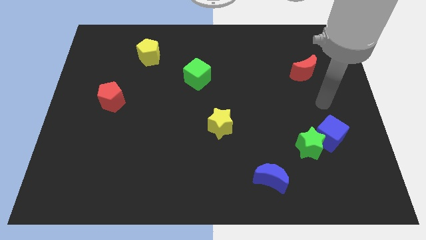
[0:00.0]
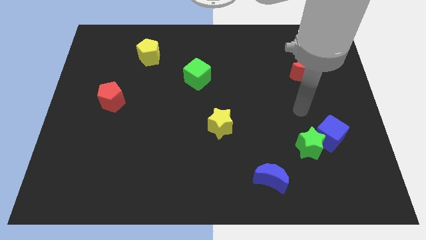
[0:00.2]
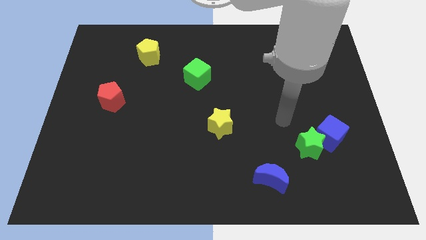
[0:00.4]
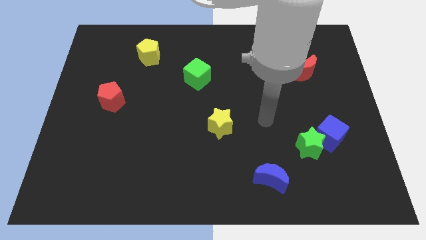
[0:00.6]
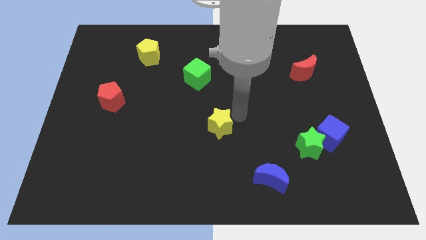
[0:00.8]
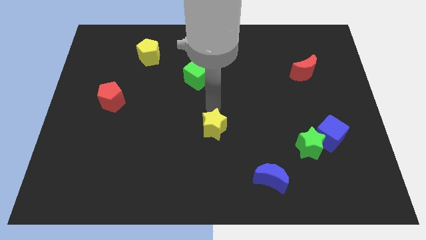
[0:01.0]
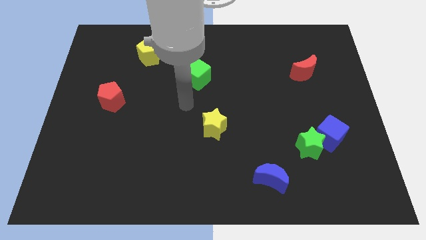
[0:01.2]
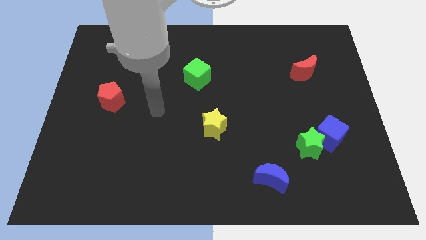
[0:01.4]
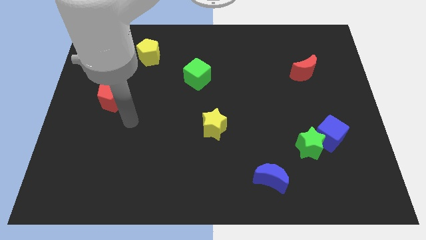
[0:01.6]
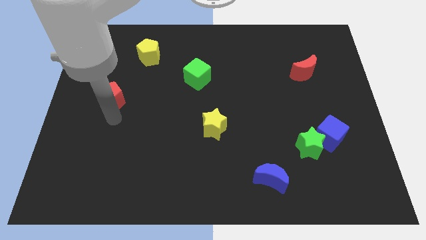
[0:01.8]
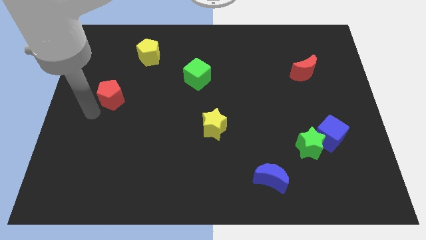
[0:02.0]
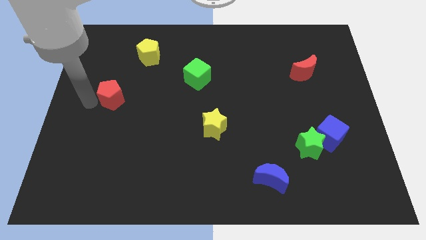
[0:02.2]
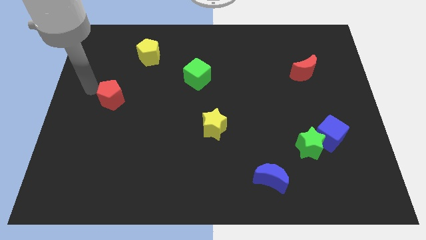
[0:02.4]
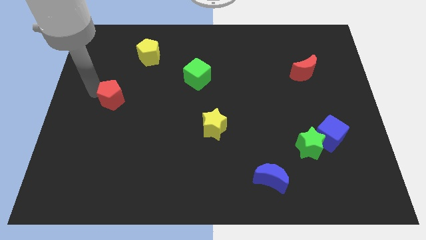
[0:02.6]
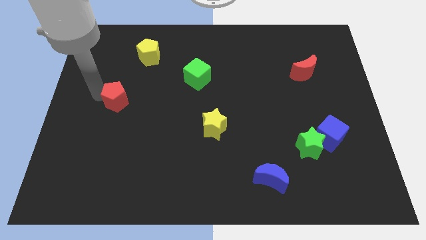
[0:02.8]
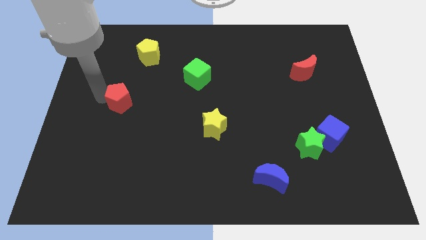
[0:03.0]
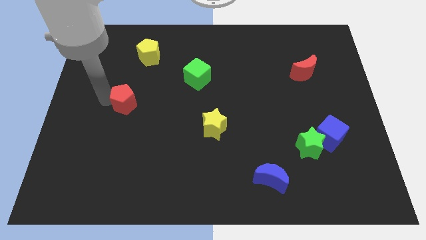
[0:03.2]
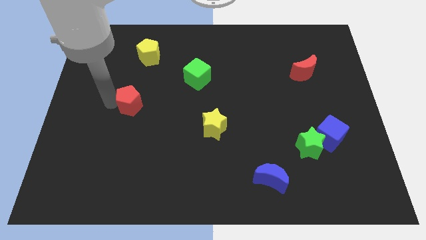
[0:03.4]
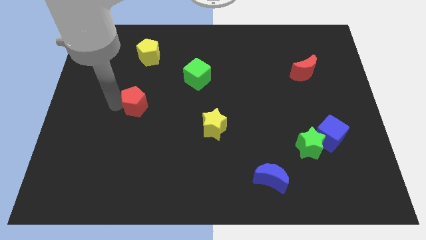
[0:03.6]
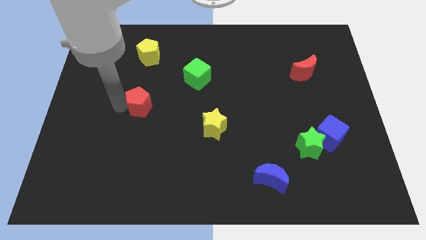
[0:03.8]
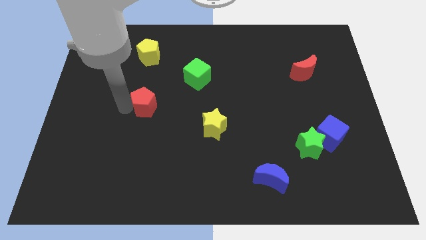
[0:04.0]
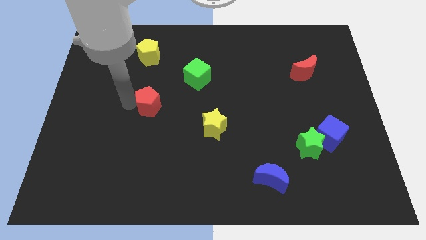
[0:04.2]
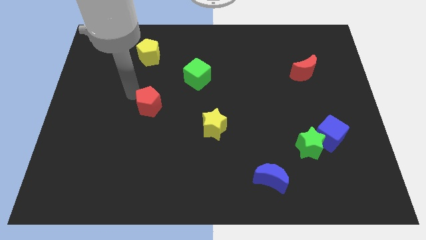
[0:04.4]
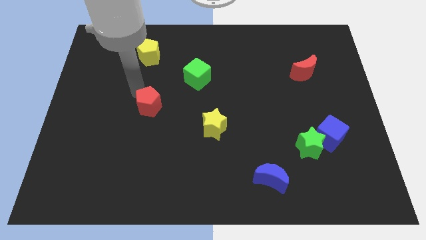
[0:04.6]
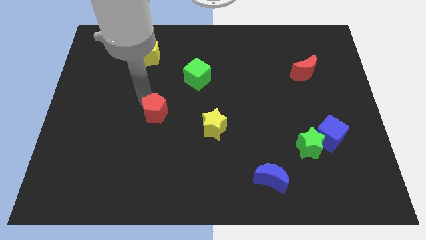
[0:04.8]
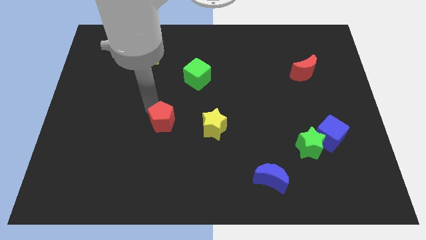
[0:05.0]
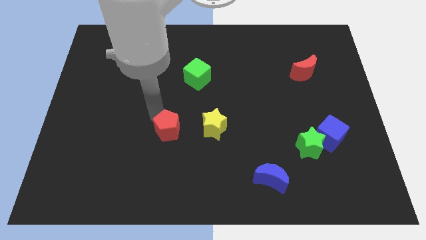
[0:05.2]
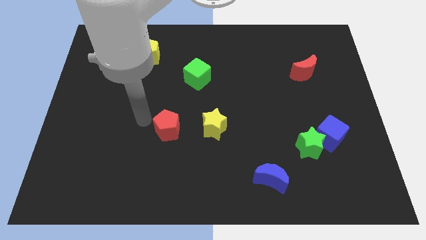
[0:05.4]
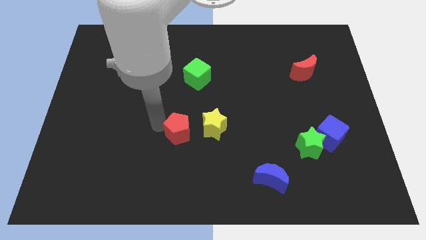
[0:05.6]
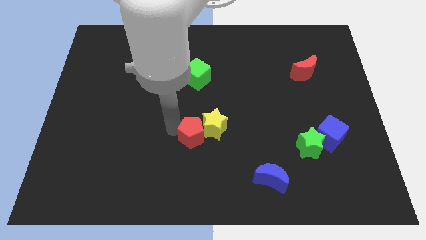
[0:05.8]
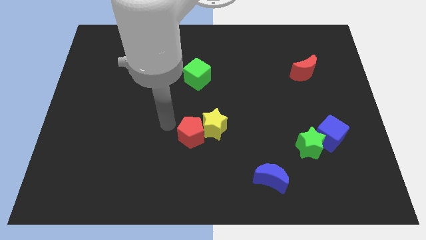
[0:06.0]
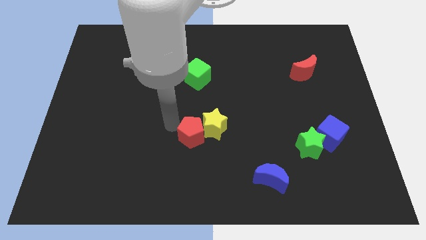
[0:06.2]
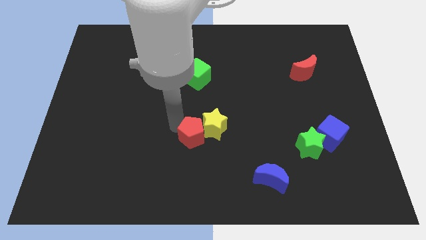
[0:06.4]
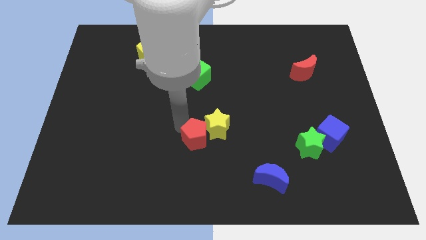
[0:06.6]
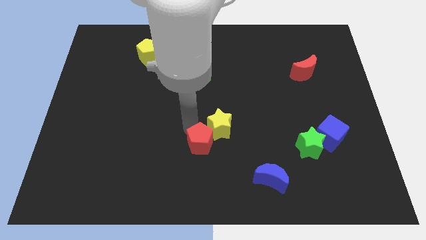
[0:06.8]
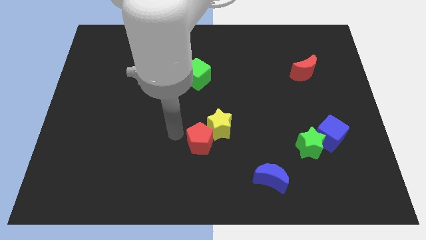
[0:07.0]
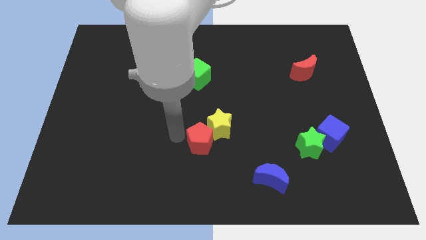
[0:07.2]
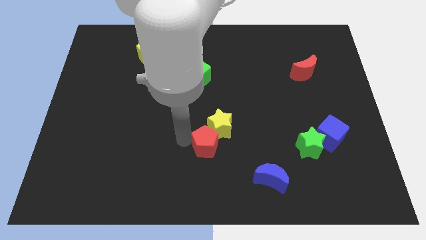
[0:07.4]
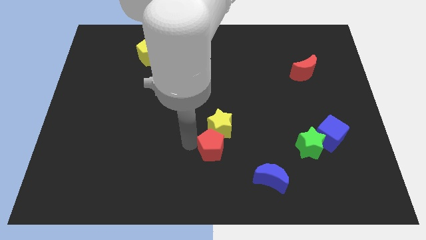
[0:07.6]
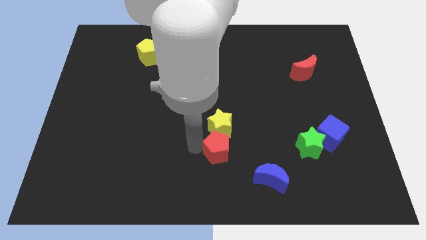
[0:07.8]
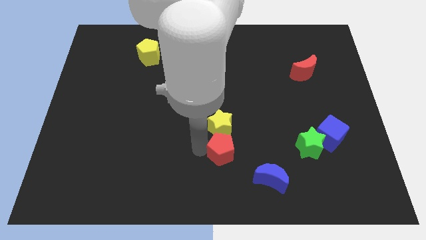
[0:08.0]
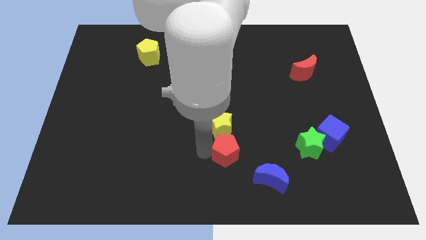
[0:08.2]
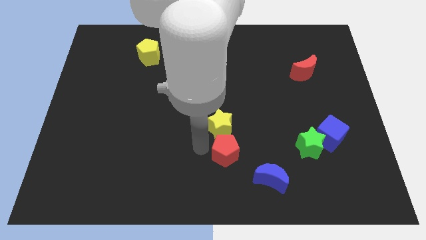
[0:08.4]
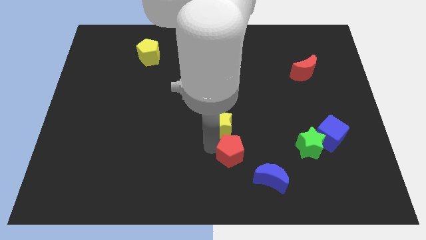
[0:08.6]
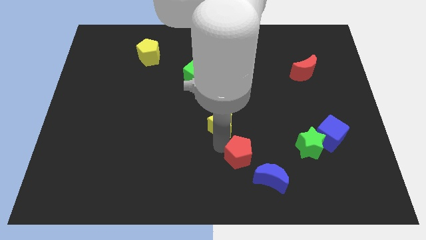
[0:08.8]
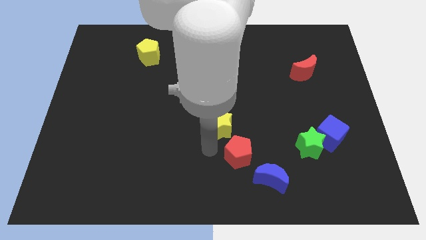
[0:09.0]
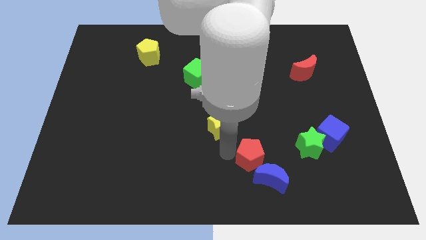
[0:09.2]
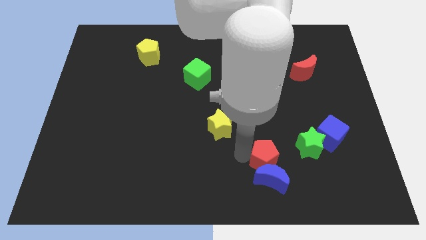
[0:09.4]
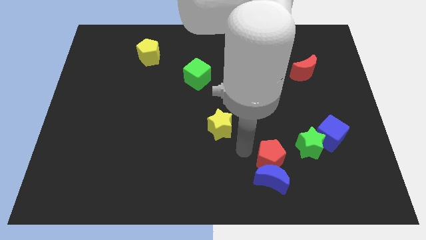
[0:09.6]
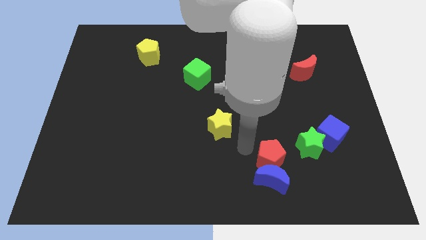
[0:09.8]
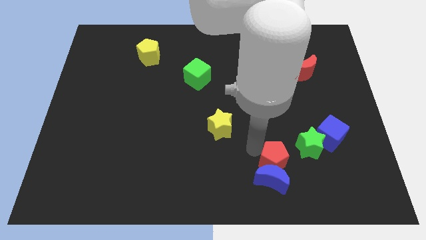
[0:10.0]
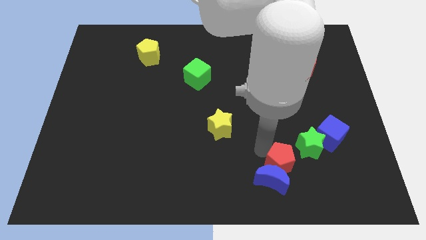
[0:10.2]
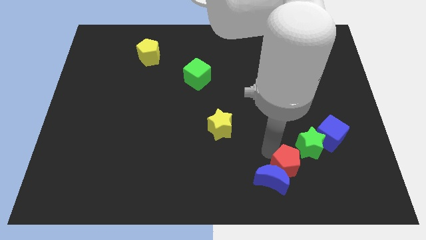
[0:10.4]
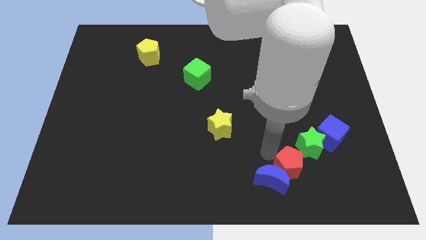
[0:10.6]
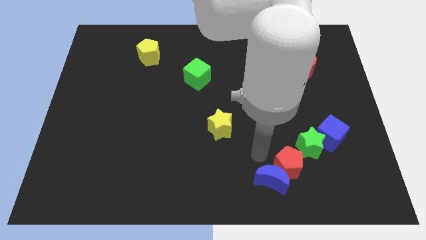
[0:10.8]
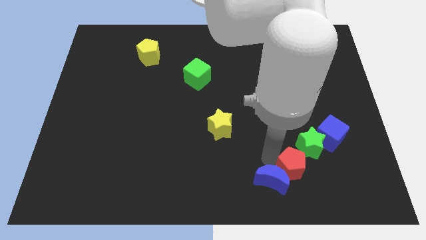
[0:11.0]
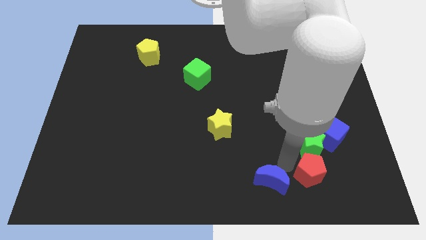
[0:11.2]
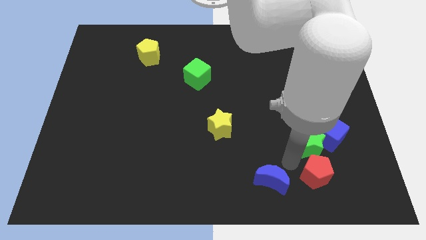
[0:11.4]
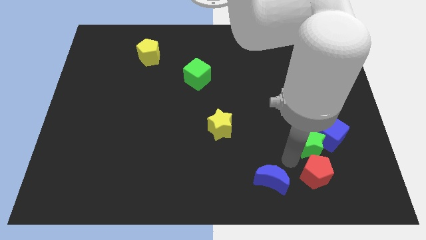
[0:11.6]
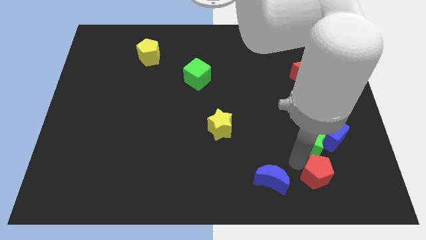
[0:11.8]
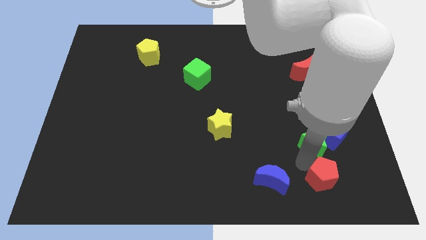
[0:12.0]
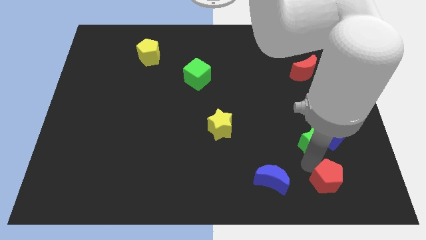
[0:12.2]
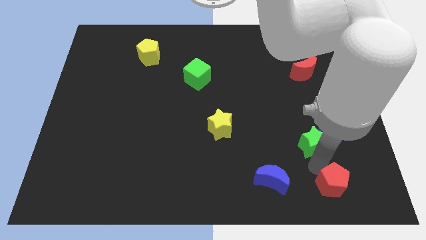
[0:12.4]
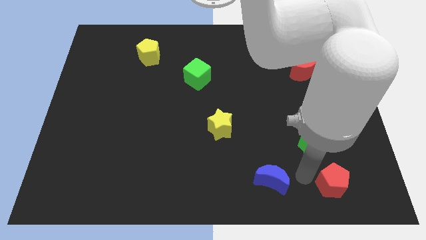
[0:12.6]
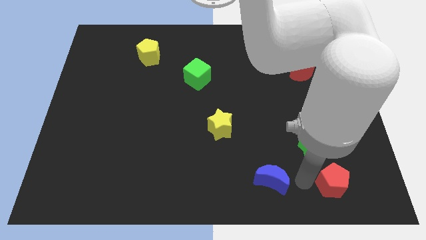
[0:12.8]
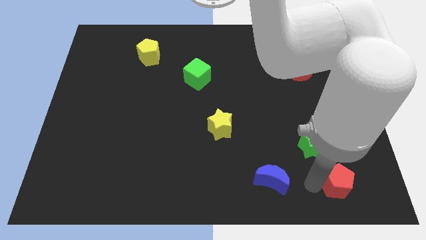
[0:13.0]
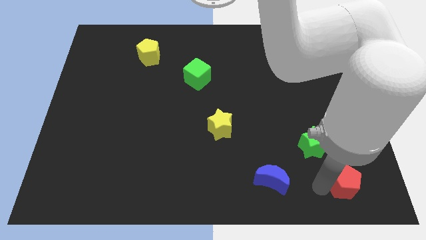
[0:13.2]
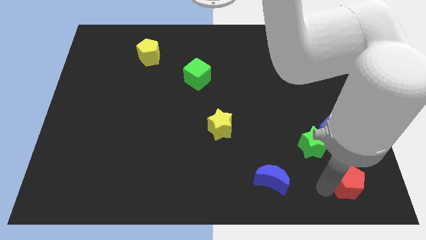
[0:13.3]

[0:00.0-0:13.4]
push the red pentagon to the lower right corner
